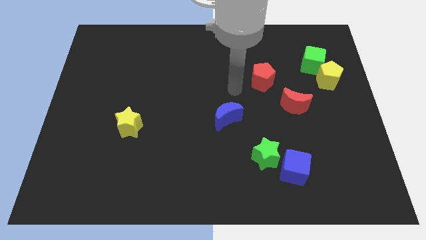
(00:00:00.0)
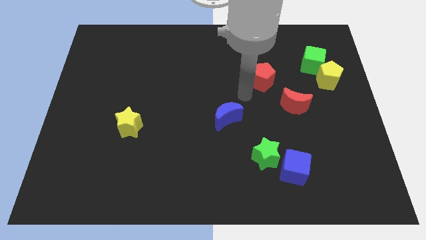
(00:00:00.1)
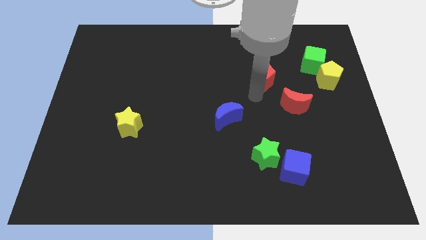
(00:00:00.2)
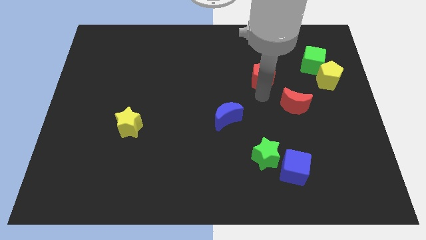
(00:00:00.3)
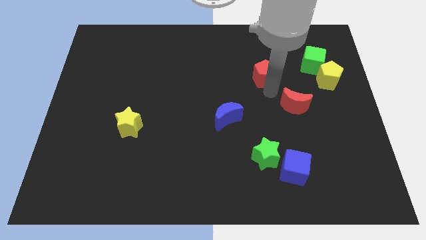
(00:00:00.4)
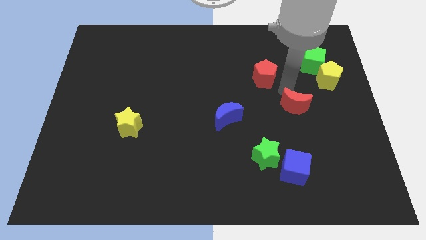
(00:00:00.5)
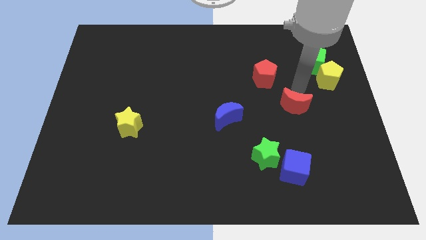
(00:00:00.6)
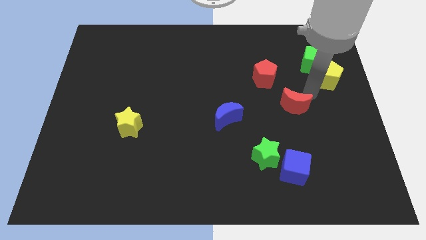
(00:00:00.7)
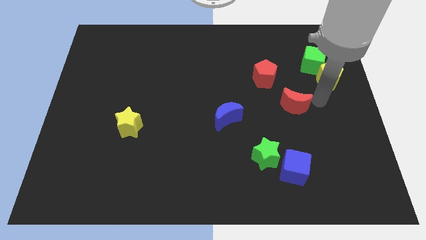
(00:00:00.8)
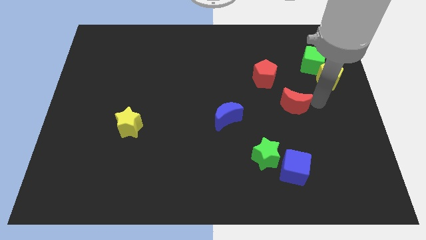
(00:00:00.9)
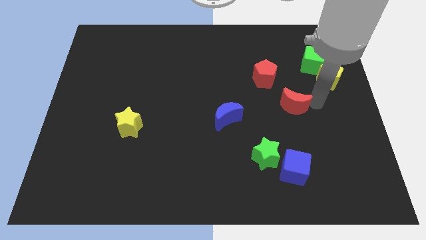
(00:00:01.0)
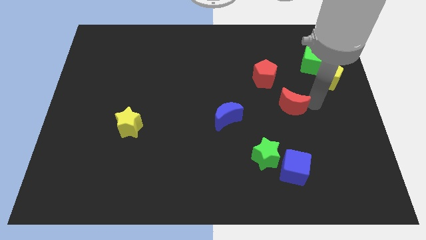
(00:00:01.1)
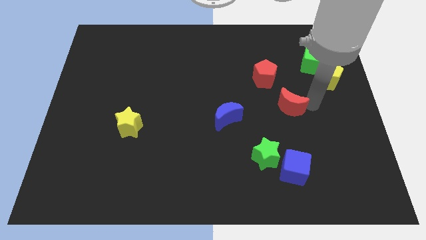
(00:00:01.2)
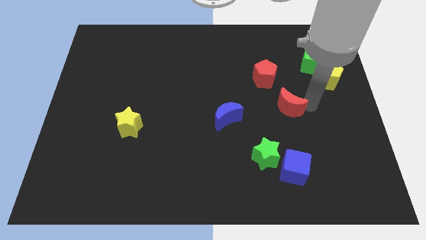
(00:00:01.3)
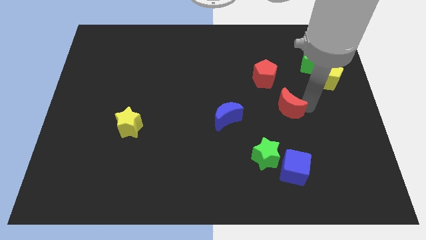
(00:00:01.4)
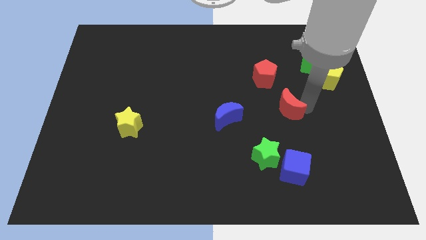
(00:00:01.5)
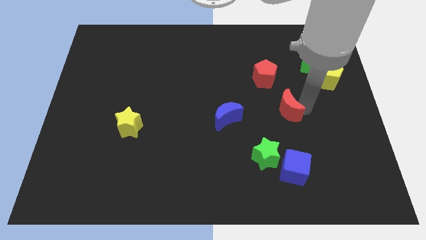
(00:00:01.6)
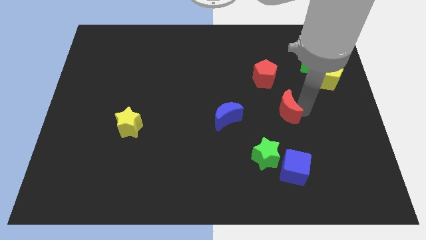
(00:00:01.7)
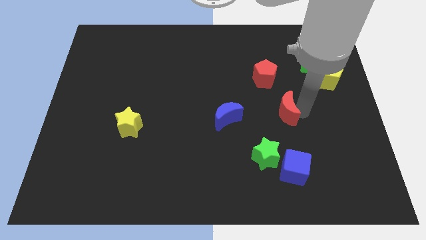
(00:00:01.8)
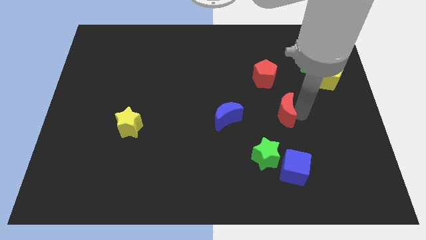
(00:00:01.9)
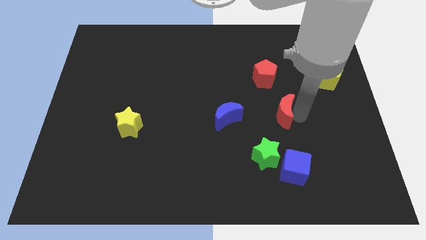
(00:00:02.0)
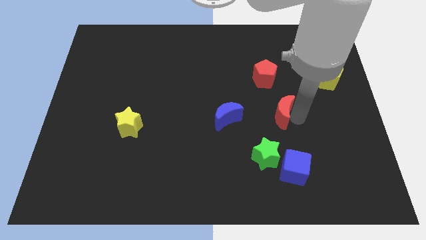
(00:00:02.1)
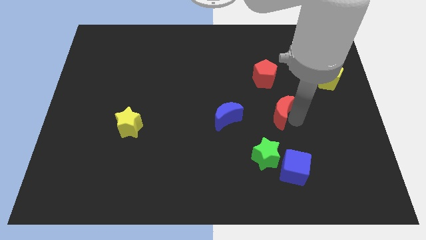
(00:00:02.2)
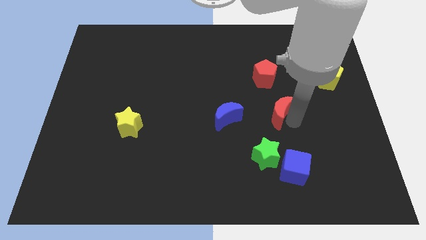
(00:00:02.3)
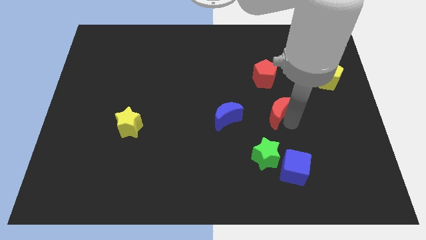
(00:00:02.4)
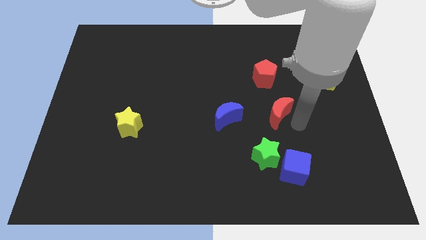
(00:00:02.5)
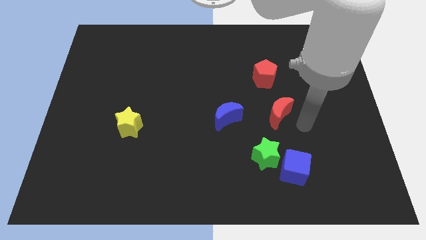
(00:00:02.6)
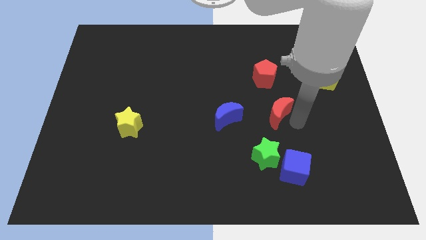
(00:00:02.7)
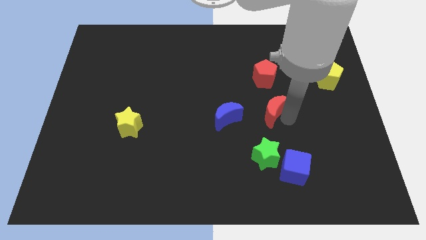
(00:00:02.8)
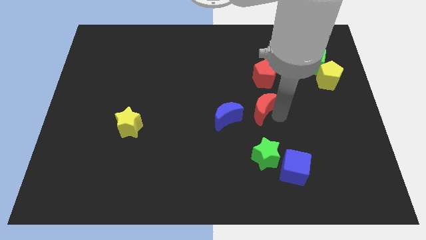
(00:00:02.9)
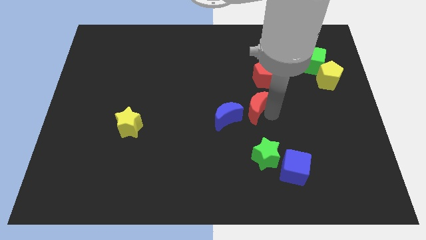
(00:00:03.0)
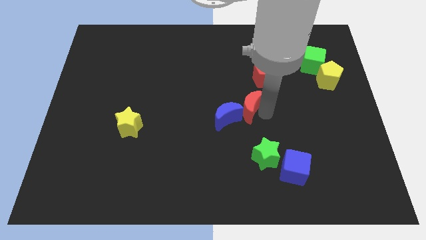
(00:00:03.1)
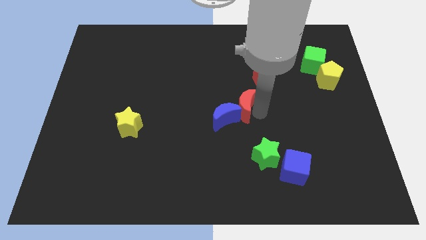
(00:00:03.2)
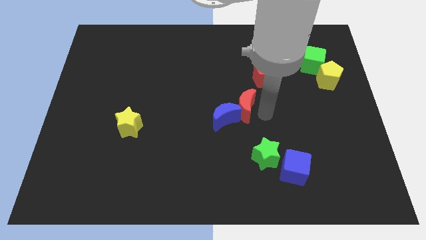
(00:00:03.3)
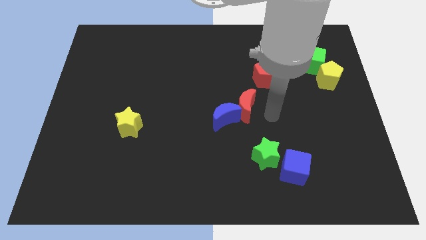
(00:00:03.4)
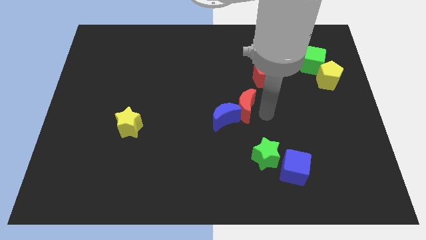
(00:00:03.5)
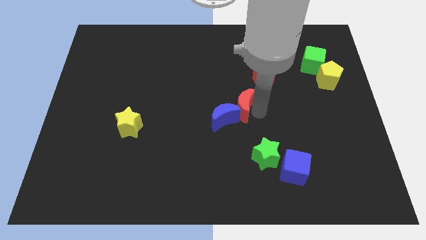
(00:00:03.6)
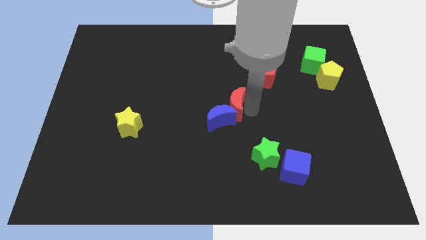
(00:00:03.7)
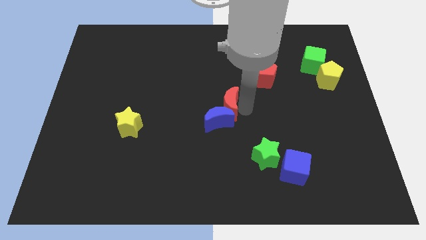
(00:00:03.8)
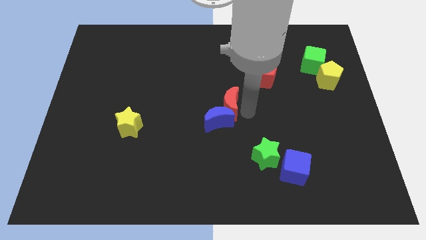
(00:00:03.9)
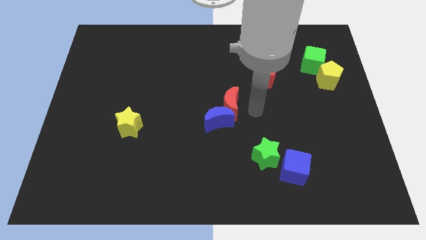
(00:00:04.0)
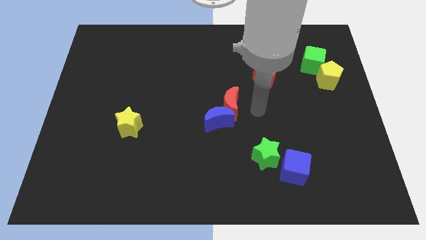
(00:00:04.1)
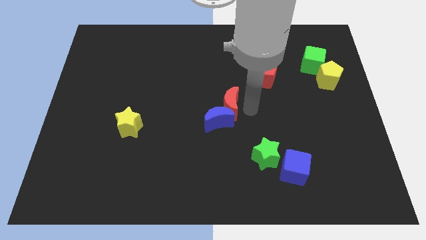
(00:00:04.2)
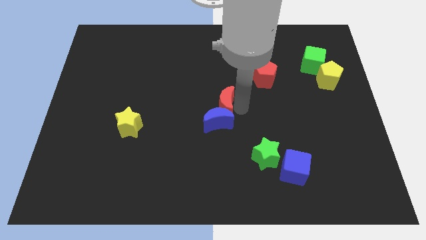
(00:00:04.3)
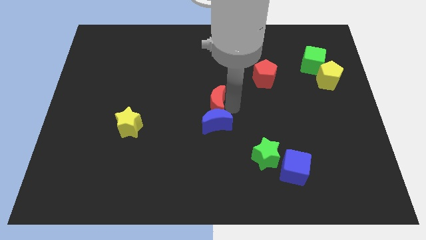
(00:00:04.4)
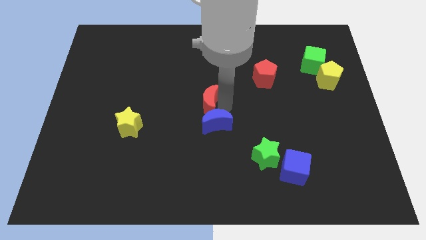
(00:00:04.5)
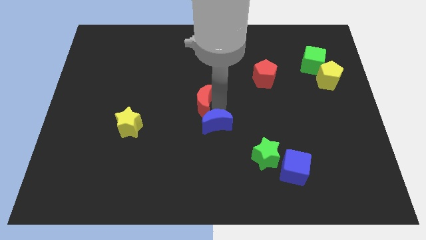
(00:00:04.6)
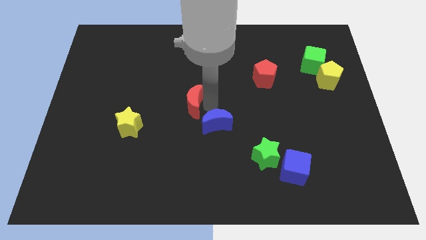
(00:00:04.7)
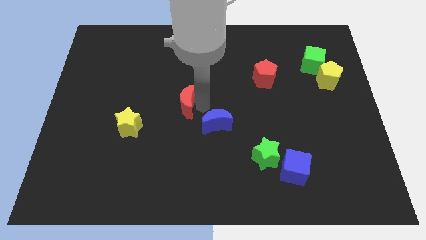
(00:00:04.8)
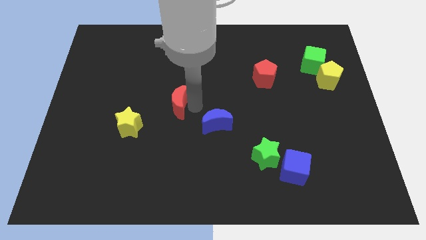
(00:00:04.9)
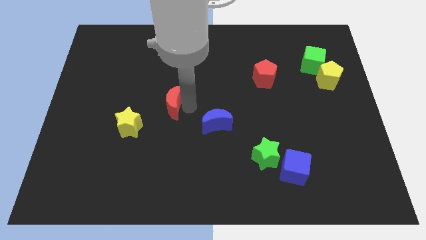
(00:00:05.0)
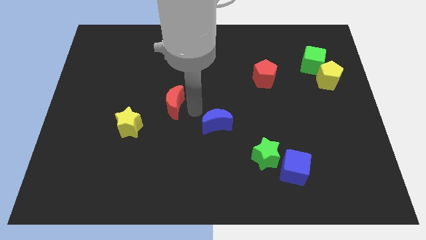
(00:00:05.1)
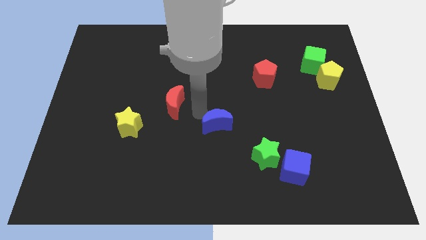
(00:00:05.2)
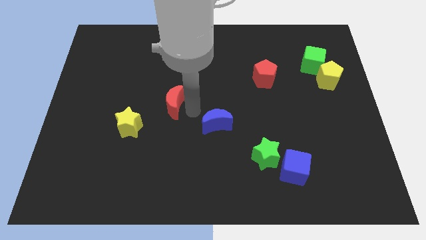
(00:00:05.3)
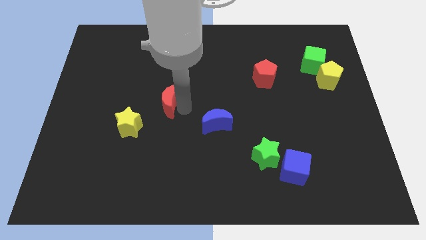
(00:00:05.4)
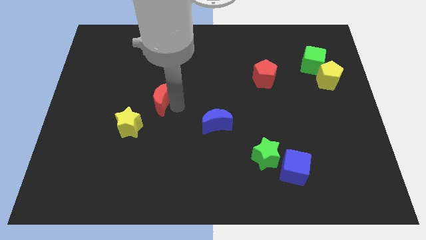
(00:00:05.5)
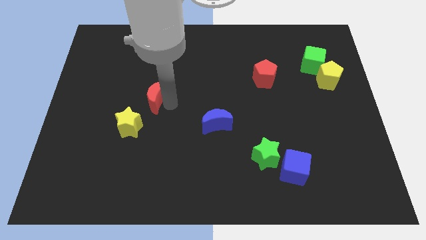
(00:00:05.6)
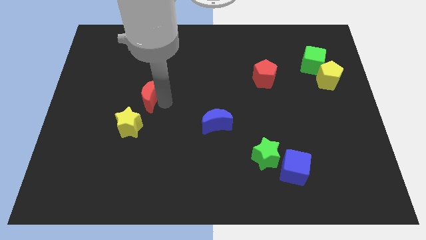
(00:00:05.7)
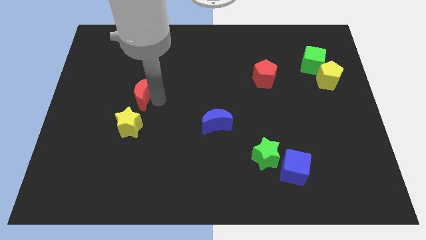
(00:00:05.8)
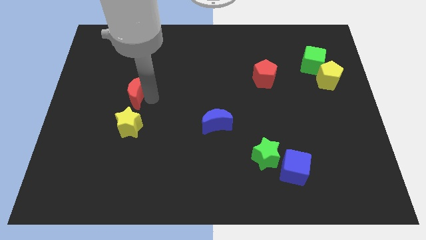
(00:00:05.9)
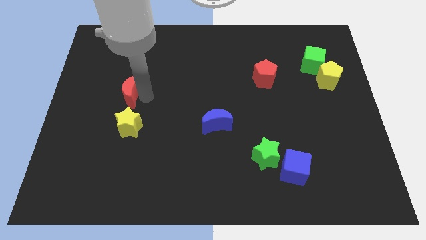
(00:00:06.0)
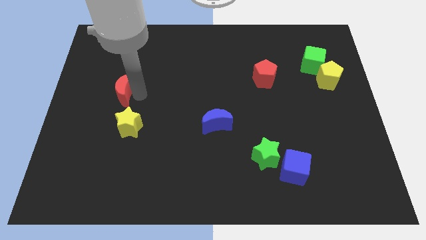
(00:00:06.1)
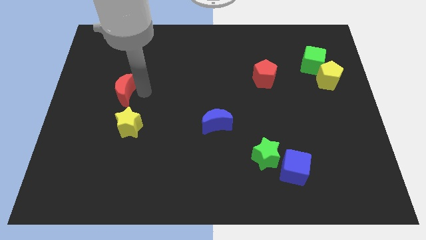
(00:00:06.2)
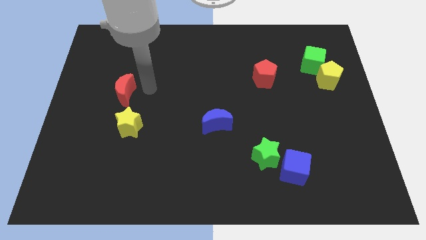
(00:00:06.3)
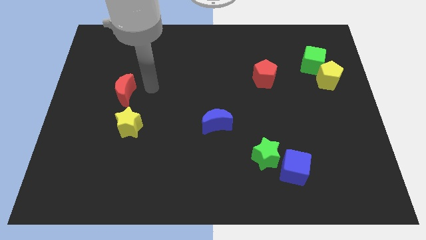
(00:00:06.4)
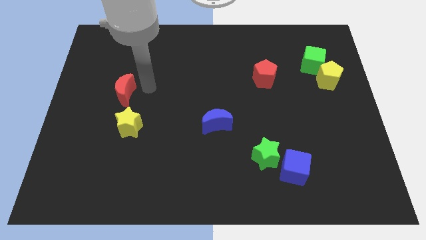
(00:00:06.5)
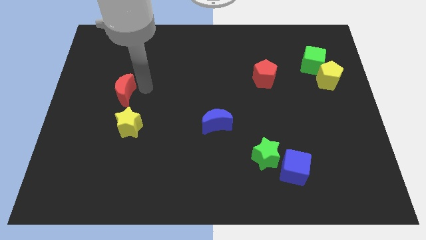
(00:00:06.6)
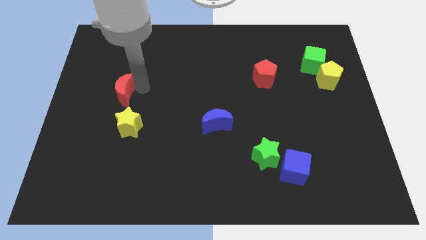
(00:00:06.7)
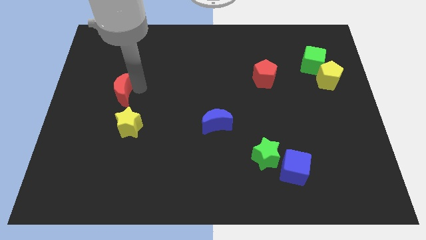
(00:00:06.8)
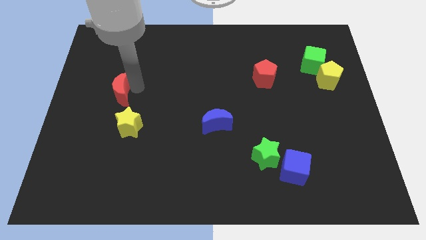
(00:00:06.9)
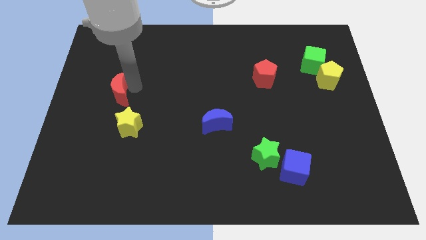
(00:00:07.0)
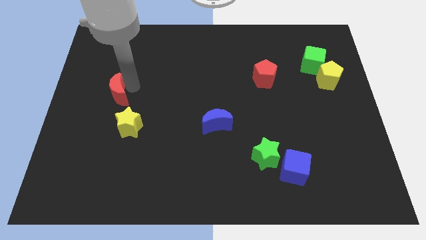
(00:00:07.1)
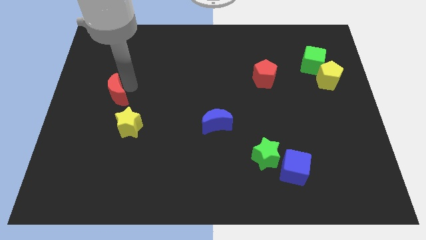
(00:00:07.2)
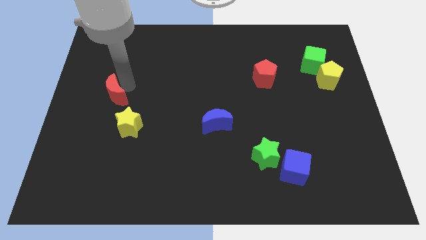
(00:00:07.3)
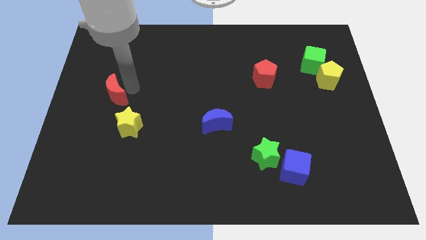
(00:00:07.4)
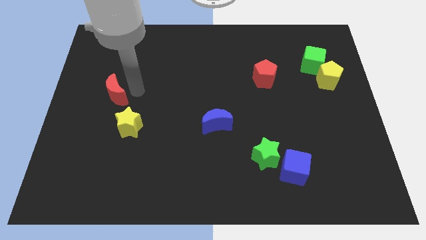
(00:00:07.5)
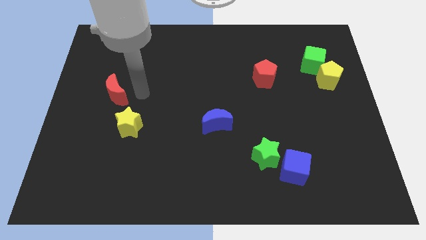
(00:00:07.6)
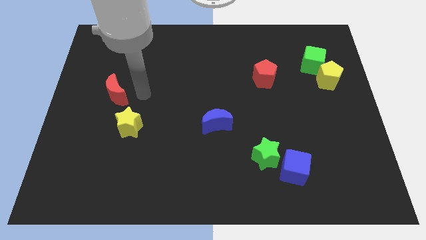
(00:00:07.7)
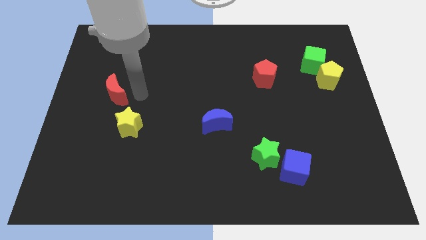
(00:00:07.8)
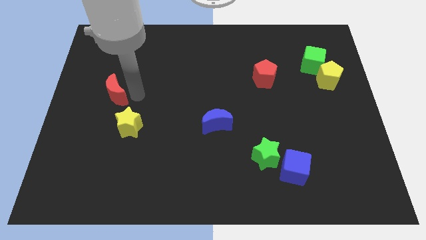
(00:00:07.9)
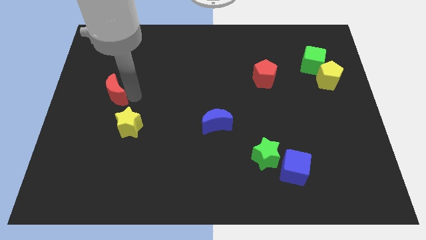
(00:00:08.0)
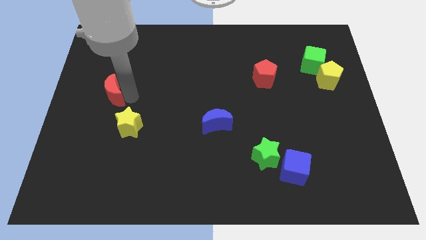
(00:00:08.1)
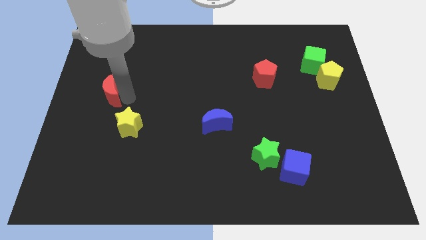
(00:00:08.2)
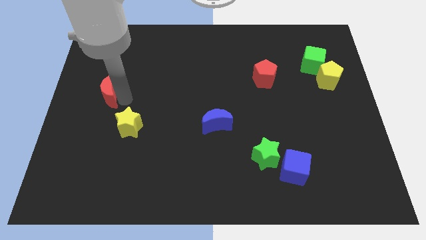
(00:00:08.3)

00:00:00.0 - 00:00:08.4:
push the red moon to the center left
